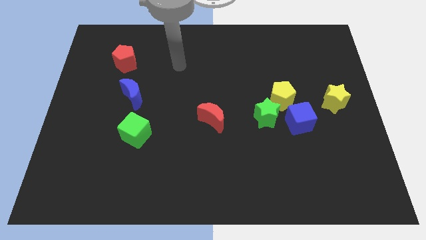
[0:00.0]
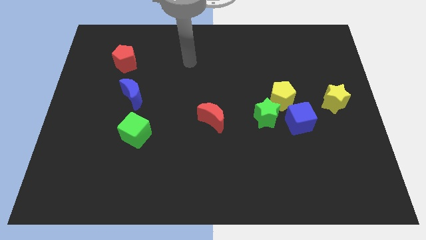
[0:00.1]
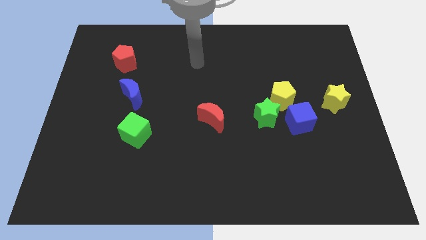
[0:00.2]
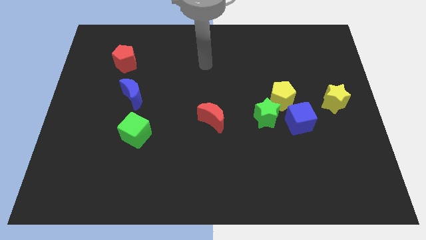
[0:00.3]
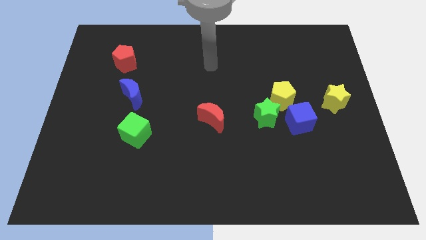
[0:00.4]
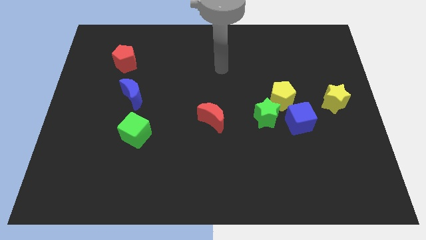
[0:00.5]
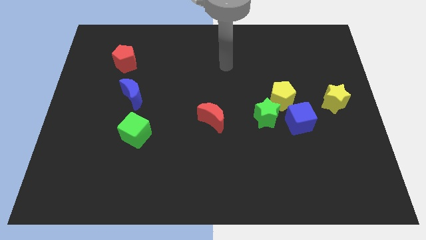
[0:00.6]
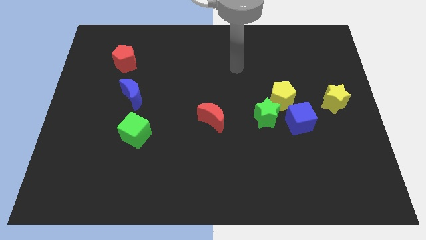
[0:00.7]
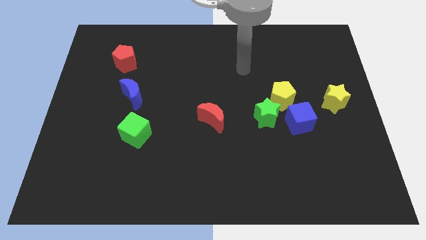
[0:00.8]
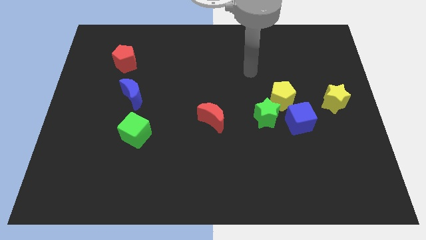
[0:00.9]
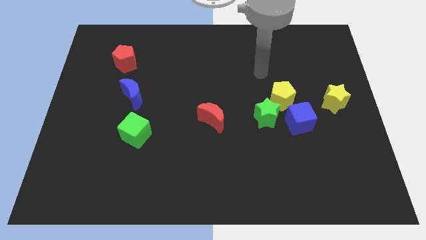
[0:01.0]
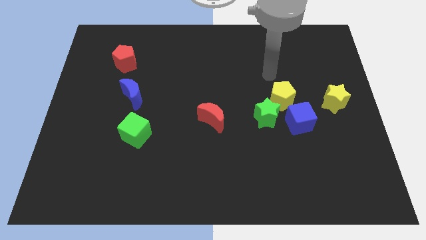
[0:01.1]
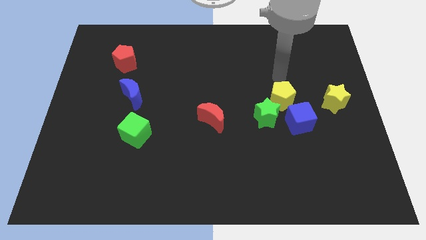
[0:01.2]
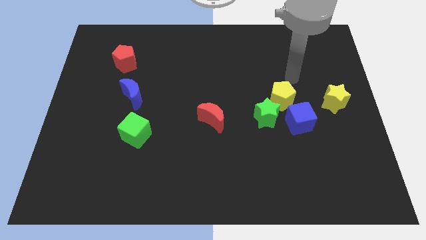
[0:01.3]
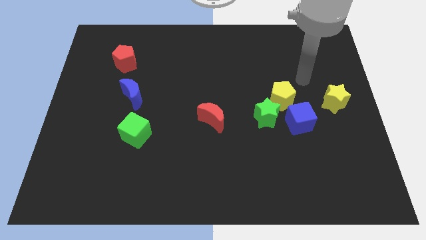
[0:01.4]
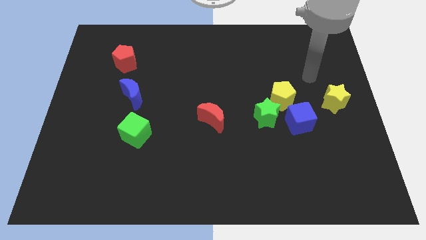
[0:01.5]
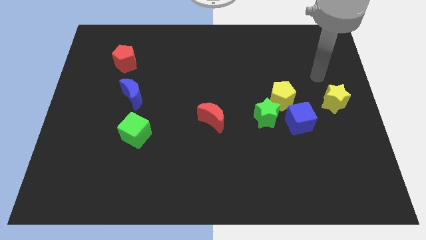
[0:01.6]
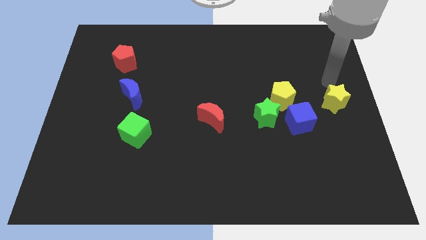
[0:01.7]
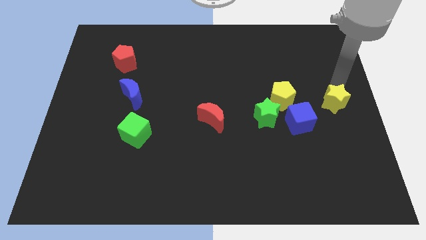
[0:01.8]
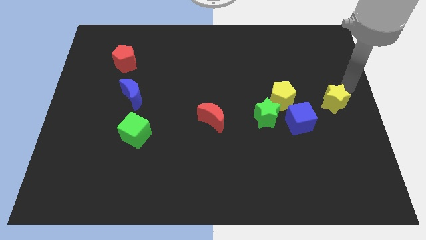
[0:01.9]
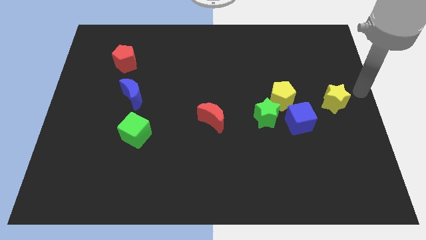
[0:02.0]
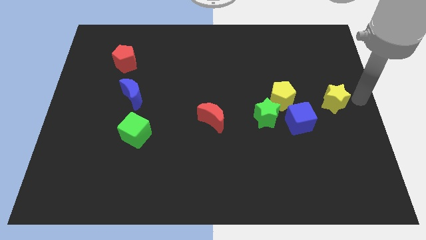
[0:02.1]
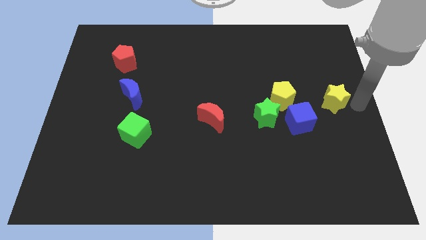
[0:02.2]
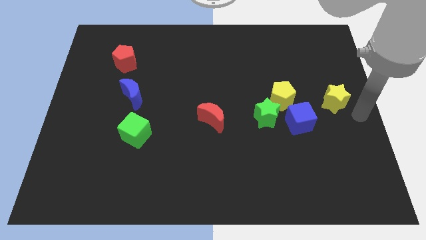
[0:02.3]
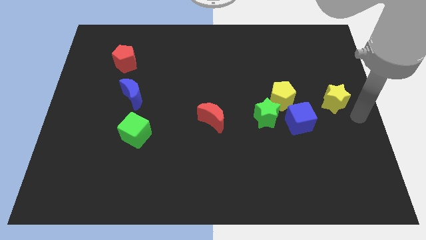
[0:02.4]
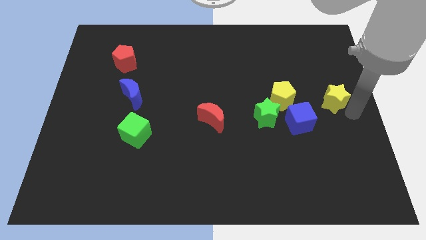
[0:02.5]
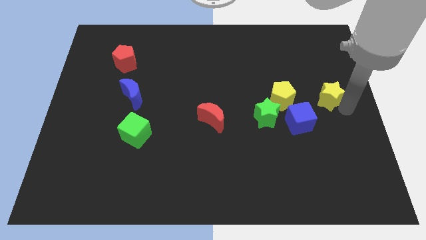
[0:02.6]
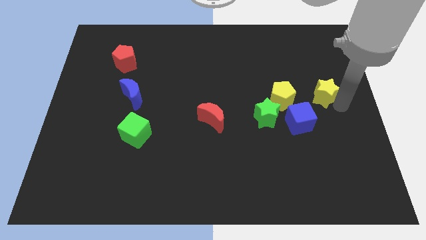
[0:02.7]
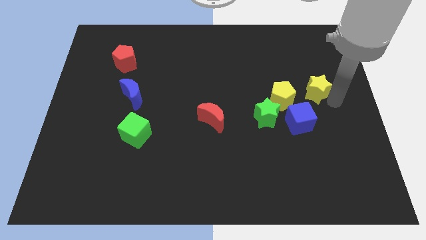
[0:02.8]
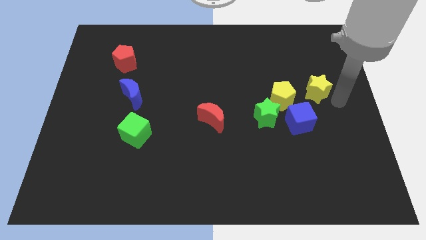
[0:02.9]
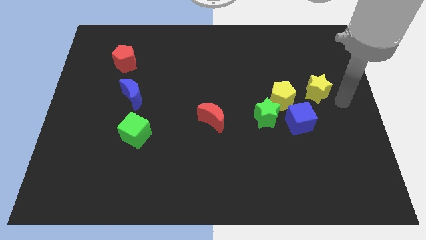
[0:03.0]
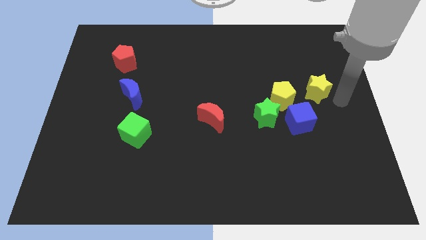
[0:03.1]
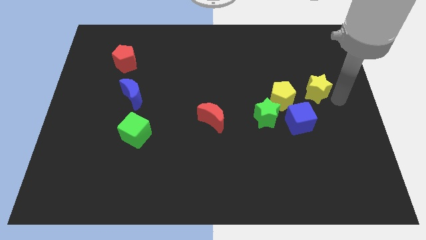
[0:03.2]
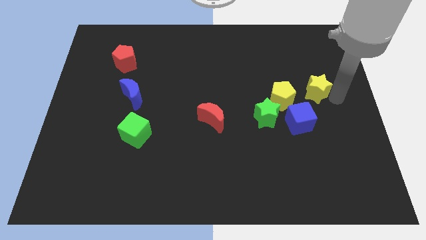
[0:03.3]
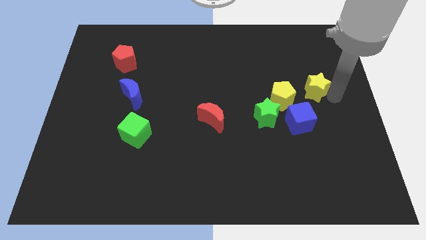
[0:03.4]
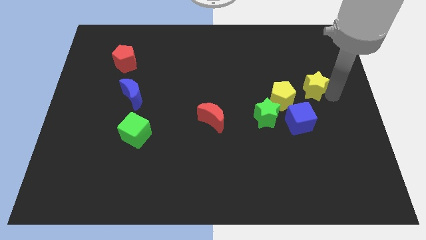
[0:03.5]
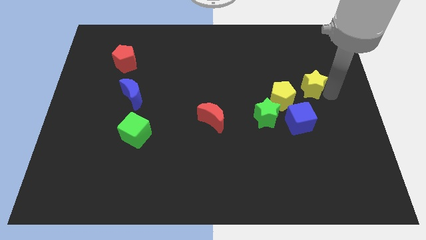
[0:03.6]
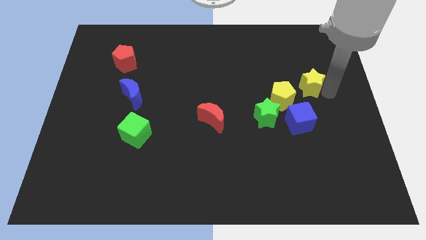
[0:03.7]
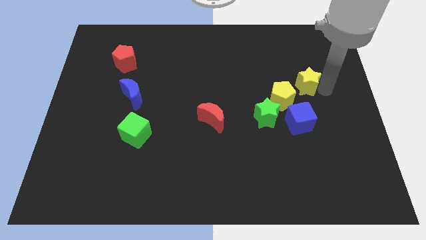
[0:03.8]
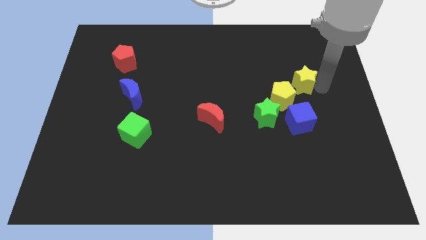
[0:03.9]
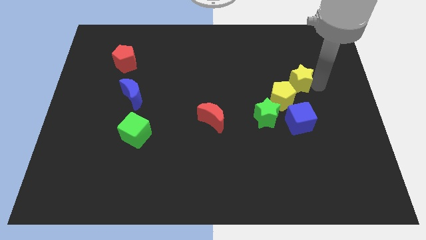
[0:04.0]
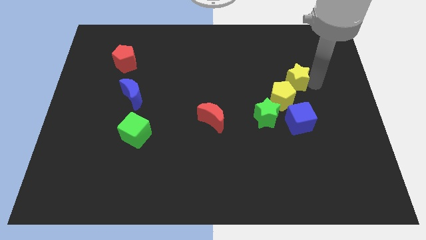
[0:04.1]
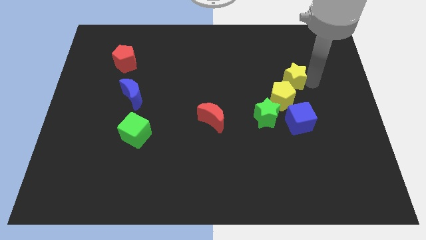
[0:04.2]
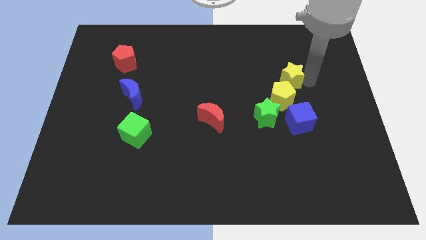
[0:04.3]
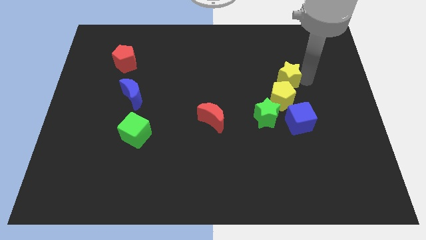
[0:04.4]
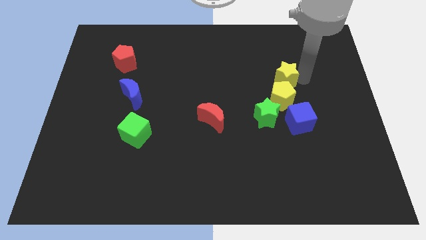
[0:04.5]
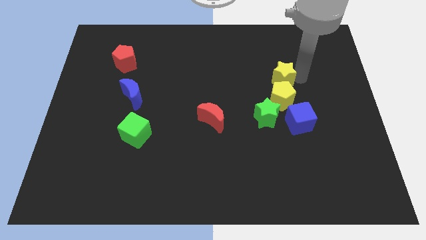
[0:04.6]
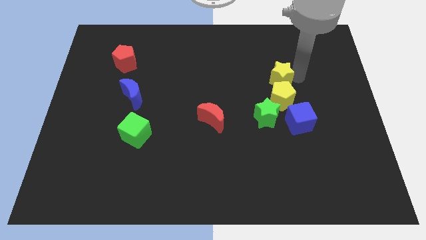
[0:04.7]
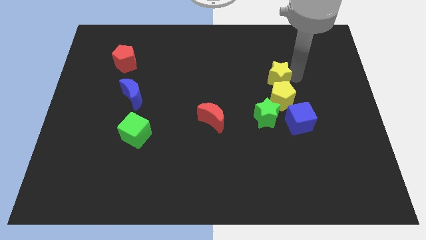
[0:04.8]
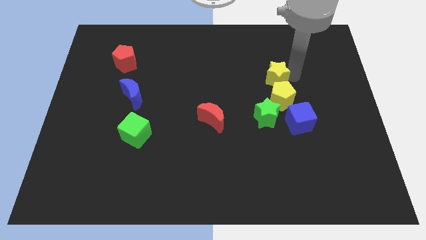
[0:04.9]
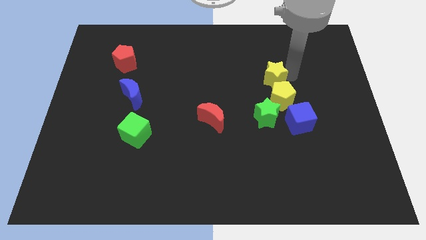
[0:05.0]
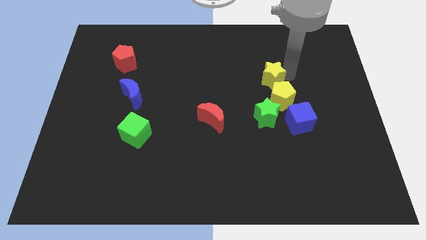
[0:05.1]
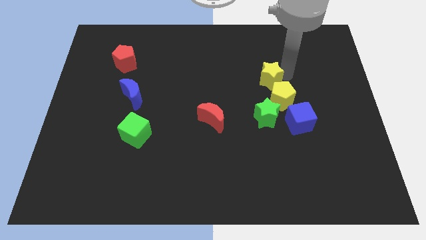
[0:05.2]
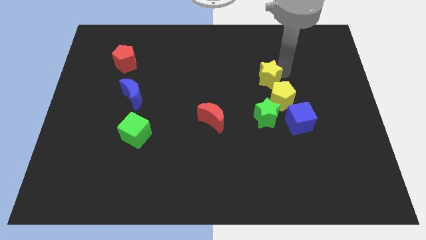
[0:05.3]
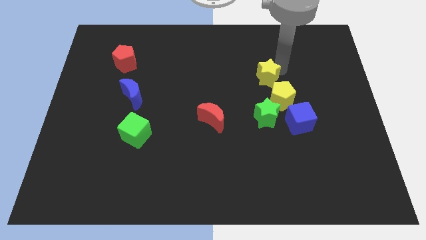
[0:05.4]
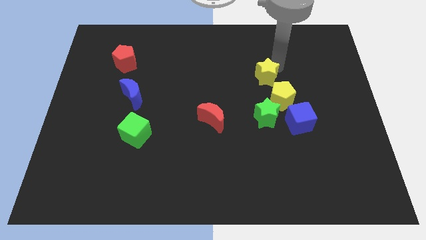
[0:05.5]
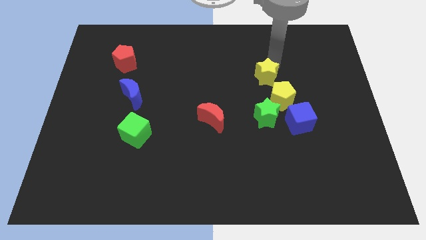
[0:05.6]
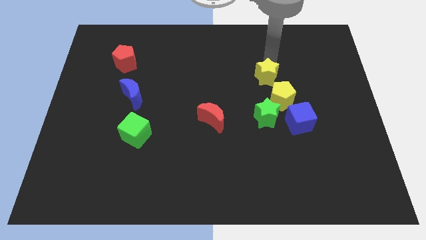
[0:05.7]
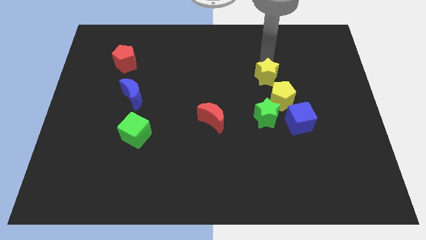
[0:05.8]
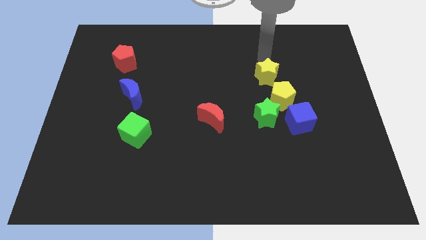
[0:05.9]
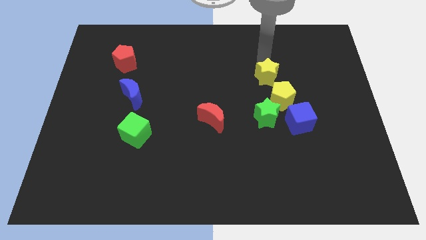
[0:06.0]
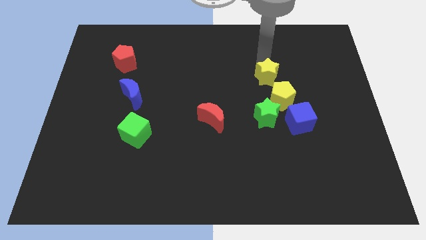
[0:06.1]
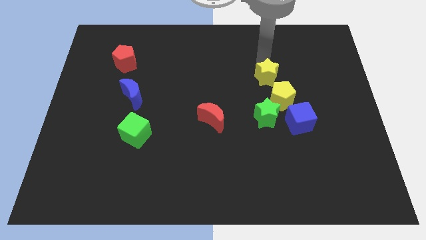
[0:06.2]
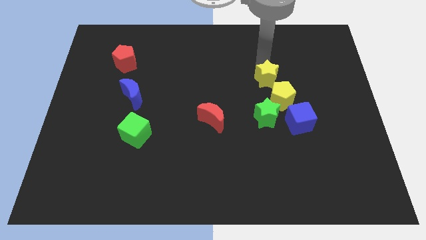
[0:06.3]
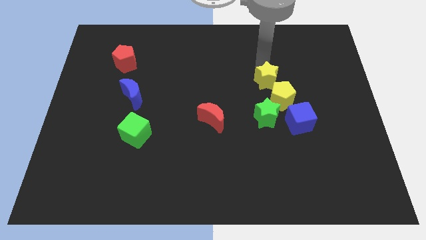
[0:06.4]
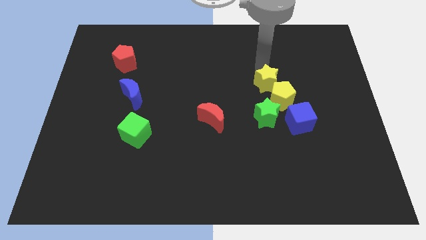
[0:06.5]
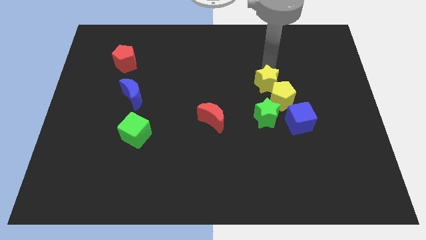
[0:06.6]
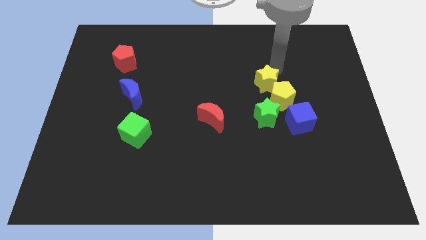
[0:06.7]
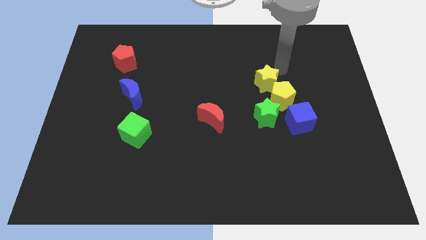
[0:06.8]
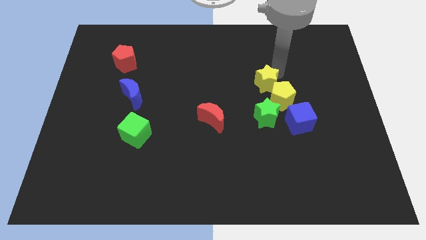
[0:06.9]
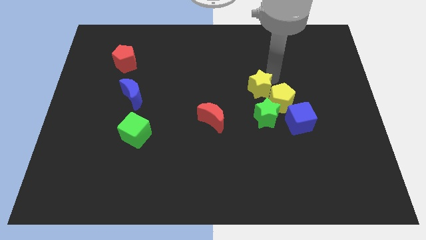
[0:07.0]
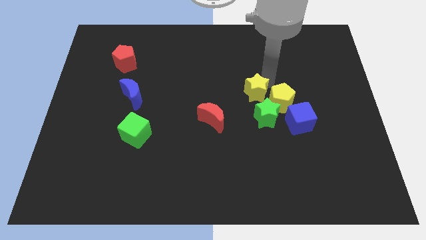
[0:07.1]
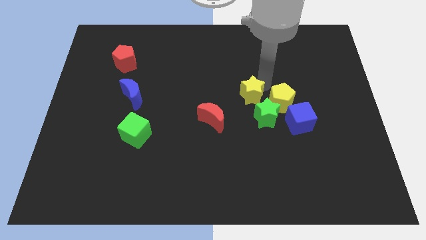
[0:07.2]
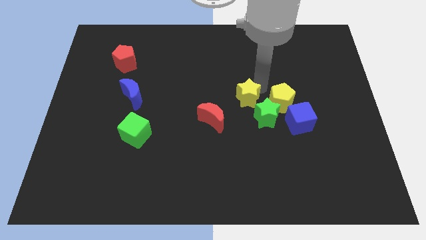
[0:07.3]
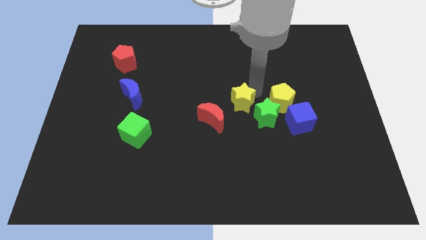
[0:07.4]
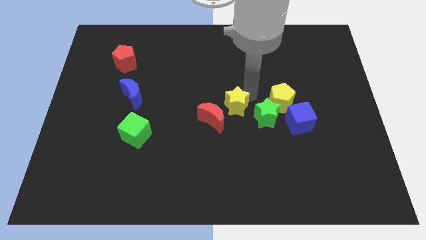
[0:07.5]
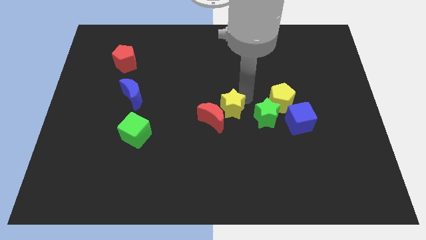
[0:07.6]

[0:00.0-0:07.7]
move the yellow star close to the red moon
